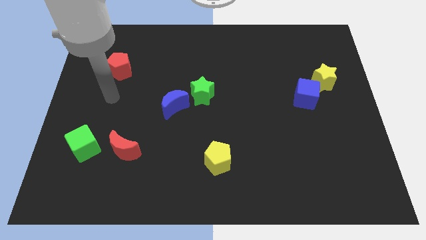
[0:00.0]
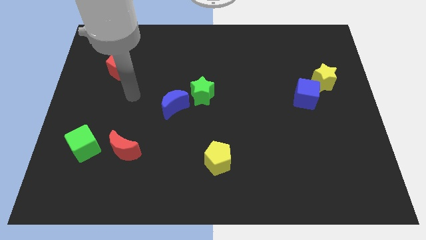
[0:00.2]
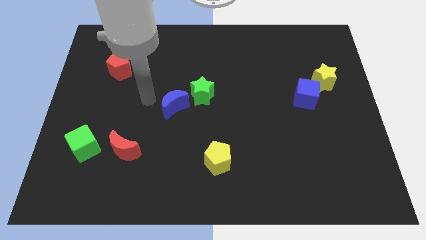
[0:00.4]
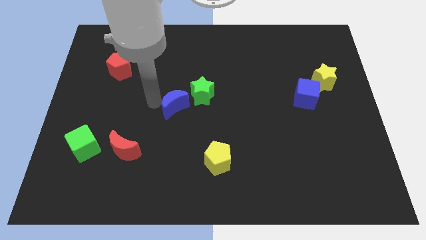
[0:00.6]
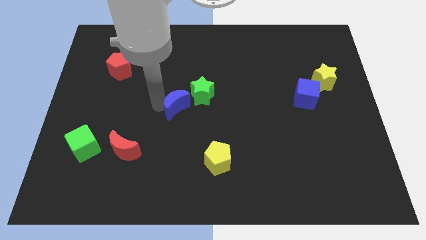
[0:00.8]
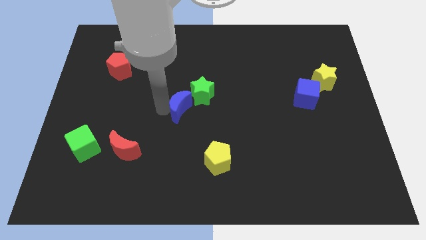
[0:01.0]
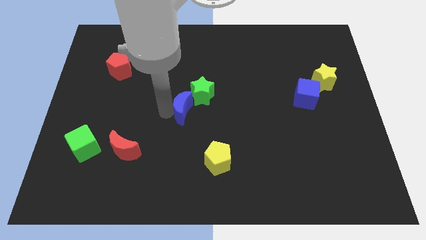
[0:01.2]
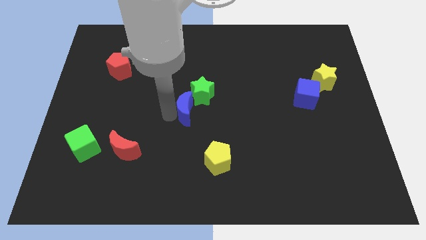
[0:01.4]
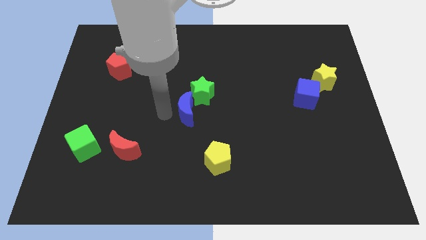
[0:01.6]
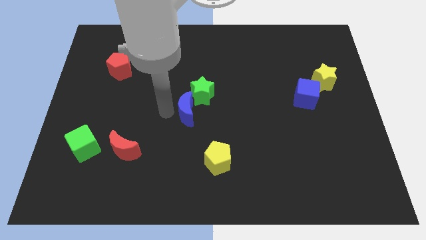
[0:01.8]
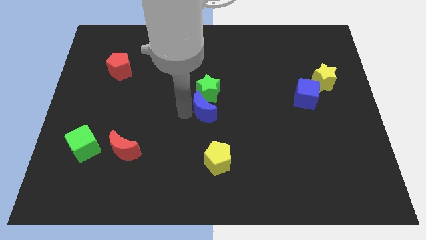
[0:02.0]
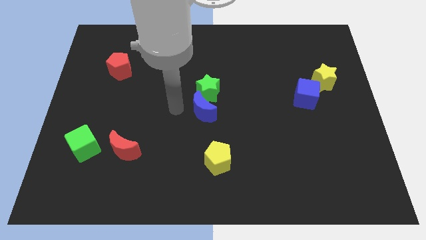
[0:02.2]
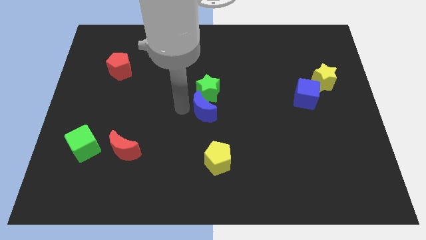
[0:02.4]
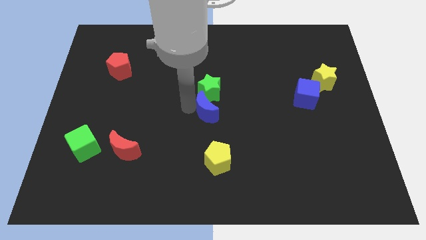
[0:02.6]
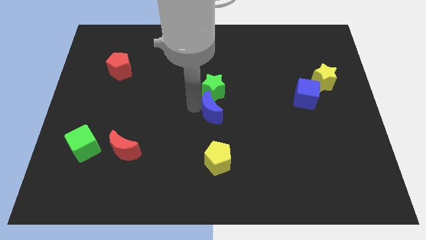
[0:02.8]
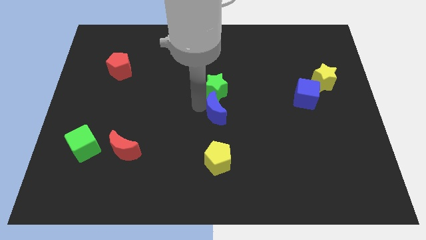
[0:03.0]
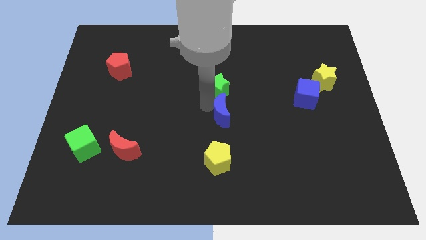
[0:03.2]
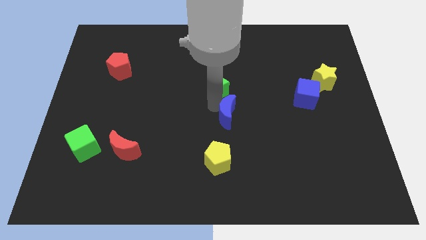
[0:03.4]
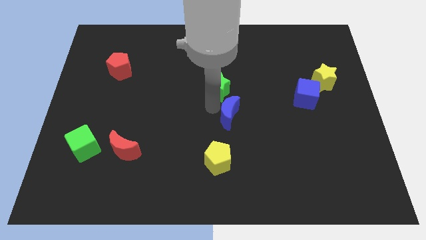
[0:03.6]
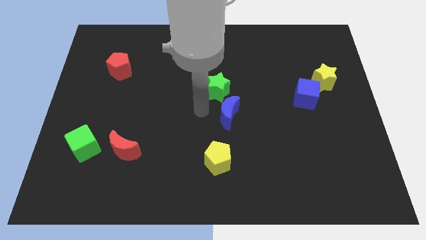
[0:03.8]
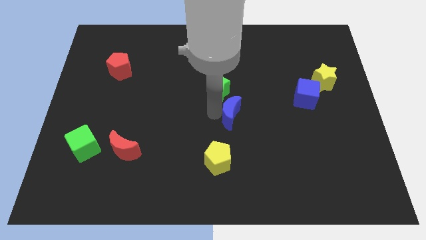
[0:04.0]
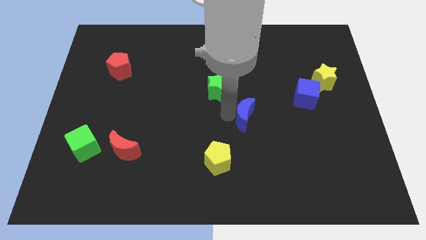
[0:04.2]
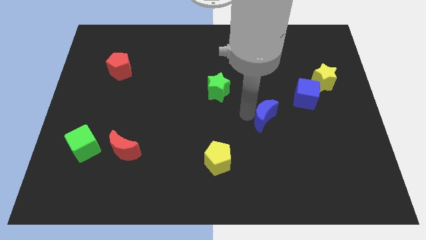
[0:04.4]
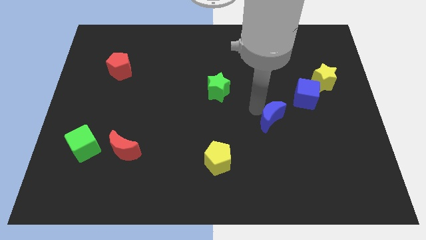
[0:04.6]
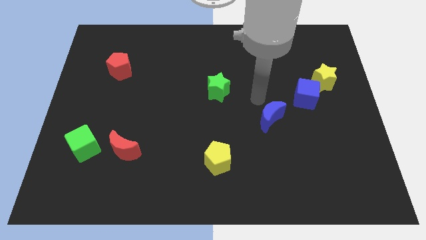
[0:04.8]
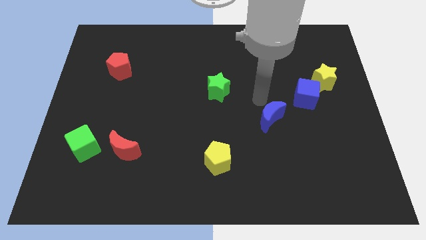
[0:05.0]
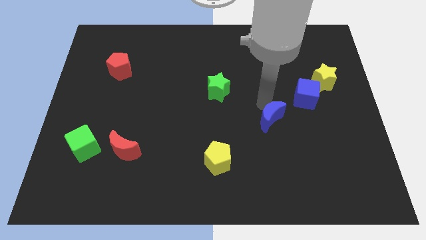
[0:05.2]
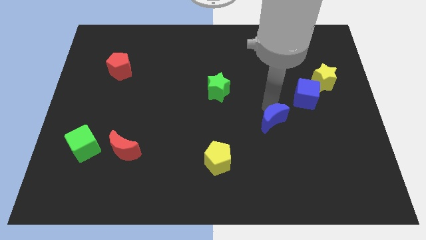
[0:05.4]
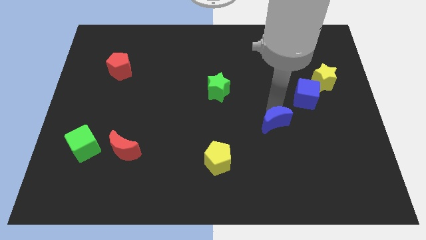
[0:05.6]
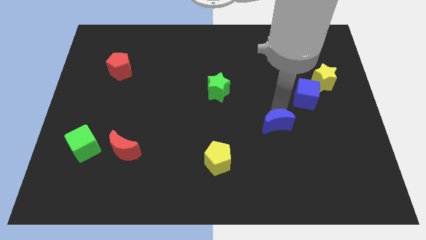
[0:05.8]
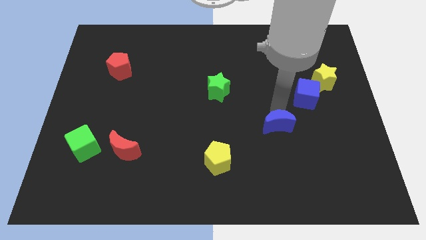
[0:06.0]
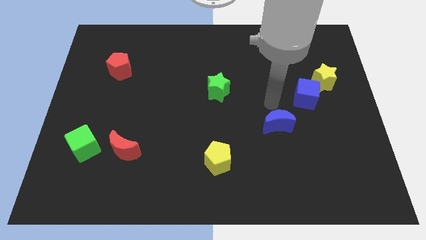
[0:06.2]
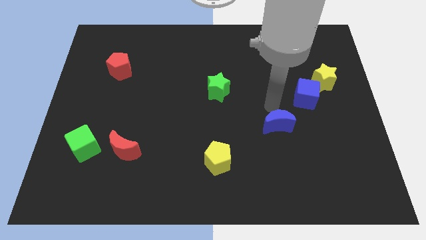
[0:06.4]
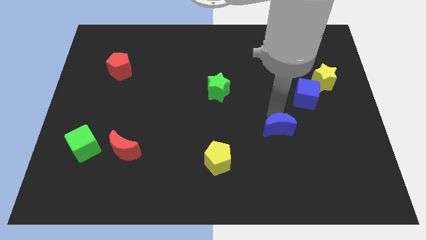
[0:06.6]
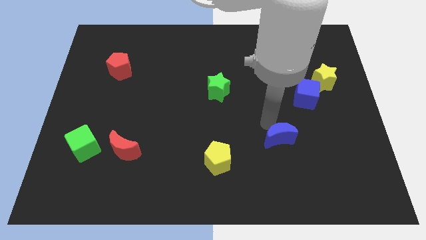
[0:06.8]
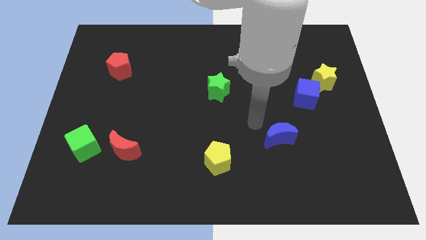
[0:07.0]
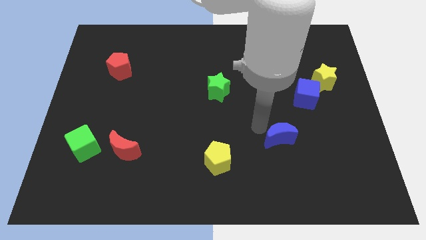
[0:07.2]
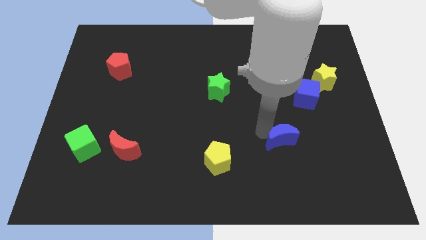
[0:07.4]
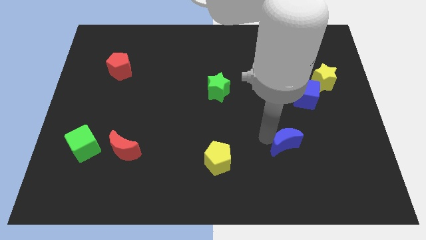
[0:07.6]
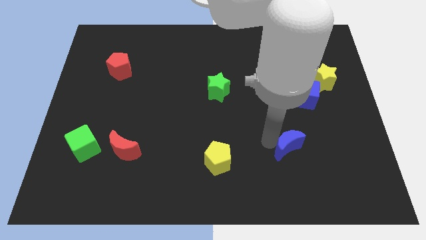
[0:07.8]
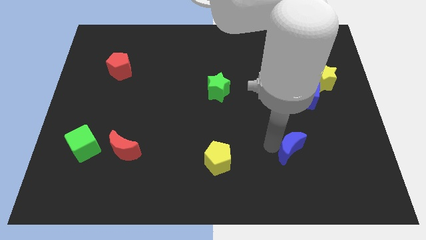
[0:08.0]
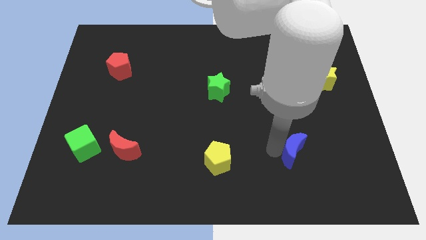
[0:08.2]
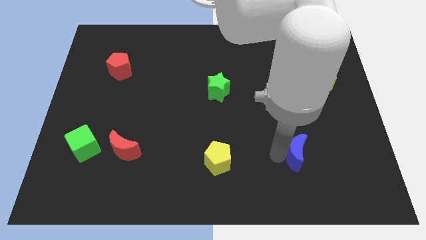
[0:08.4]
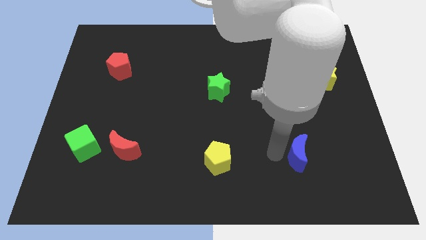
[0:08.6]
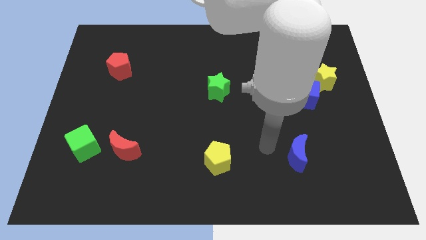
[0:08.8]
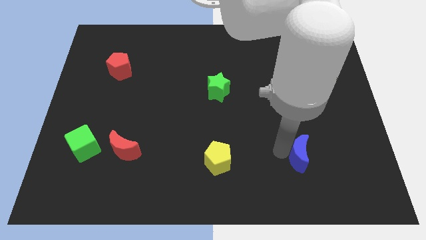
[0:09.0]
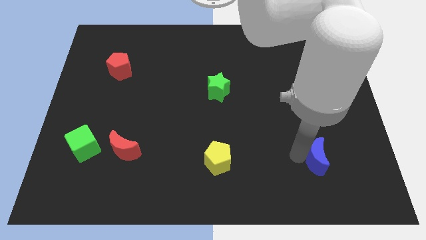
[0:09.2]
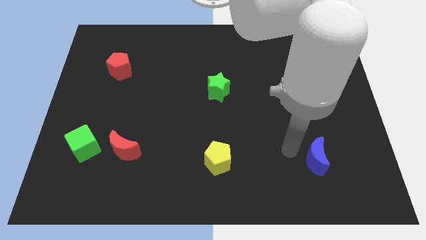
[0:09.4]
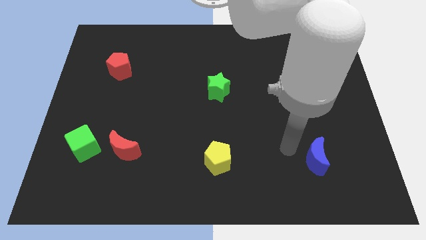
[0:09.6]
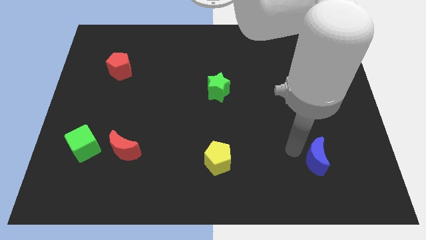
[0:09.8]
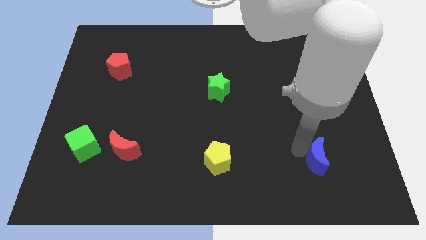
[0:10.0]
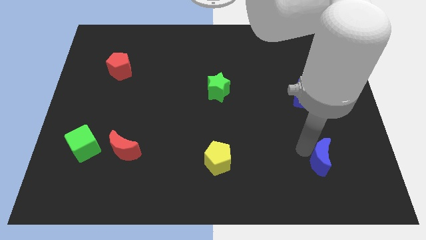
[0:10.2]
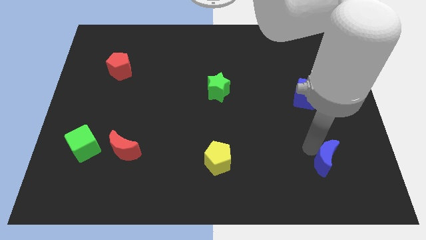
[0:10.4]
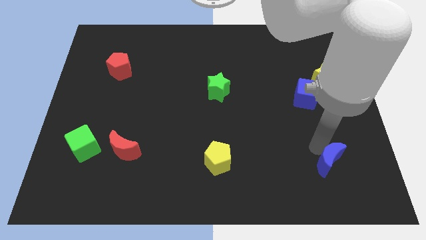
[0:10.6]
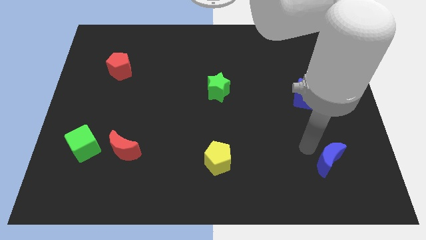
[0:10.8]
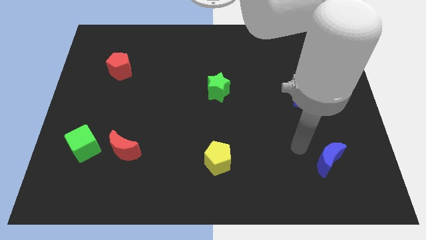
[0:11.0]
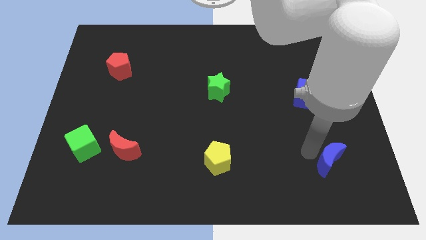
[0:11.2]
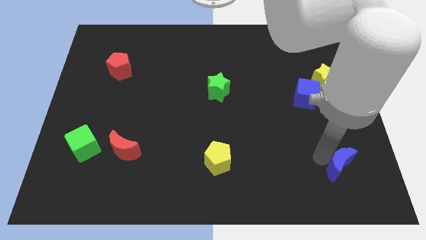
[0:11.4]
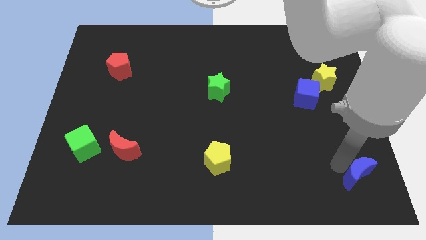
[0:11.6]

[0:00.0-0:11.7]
move the blue moon to the bottom right corner

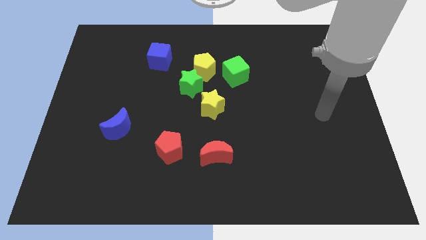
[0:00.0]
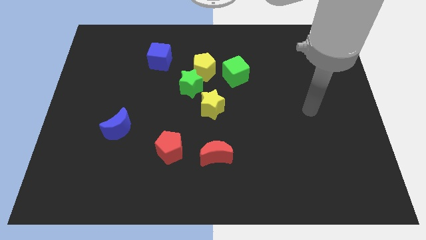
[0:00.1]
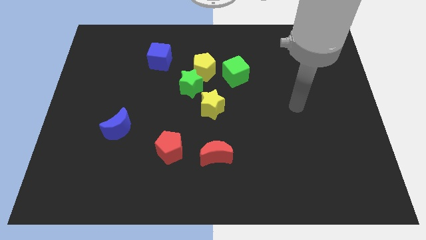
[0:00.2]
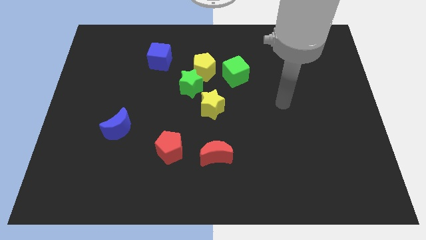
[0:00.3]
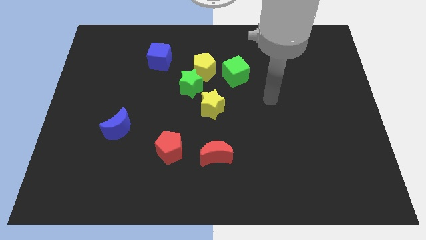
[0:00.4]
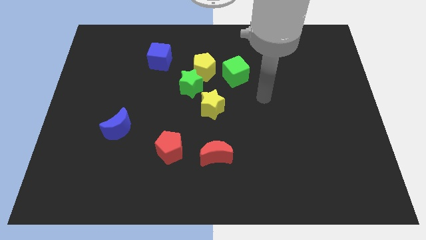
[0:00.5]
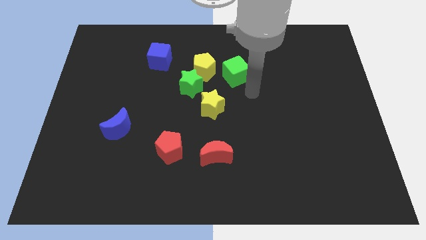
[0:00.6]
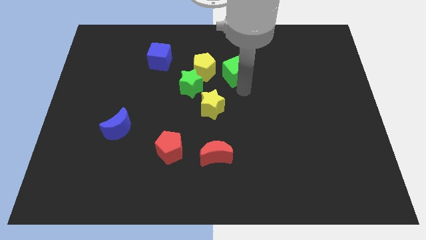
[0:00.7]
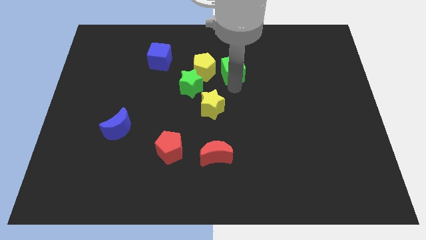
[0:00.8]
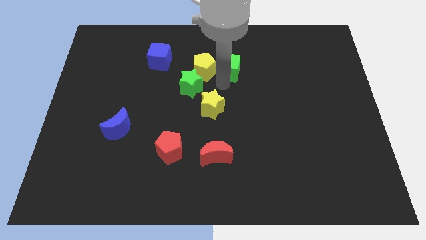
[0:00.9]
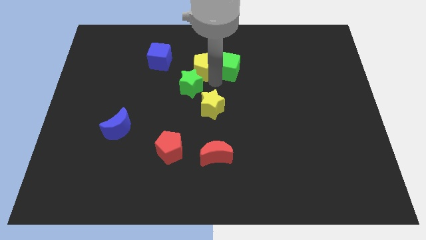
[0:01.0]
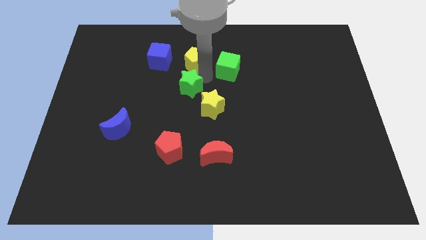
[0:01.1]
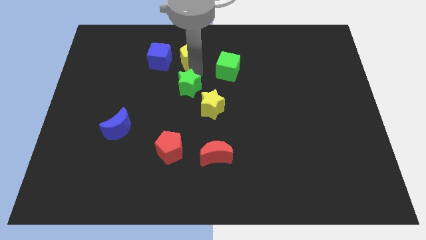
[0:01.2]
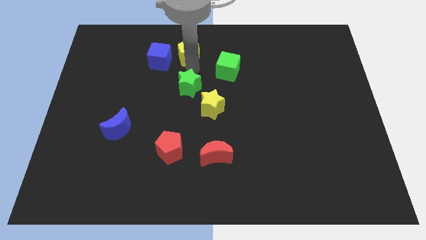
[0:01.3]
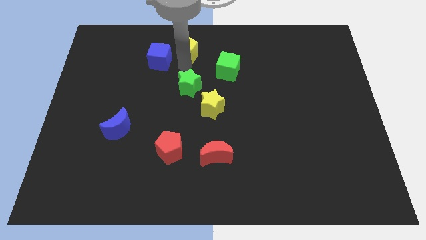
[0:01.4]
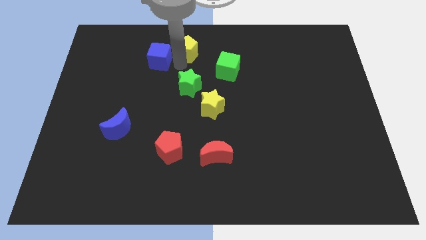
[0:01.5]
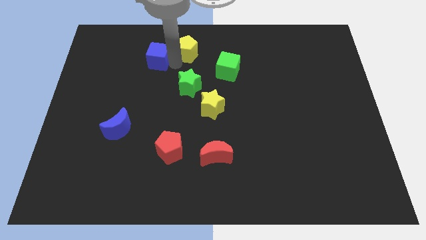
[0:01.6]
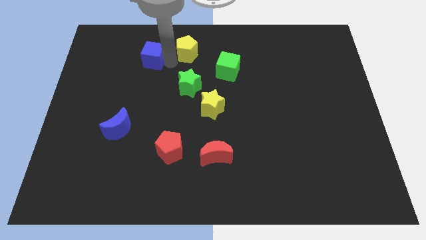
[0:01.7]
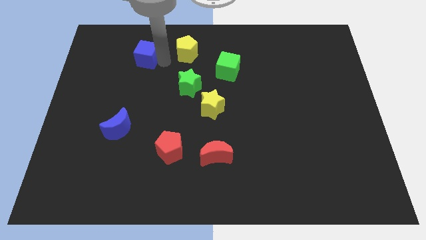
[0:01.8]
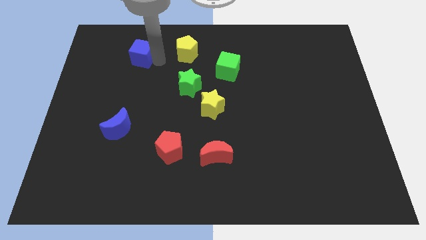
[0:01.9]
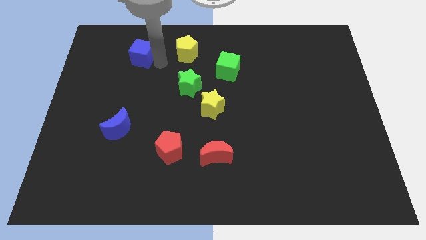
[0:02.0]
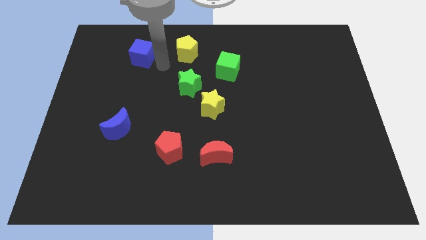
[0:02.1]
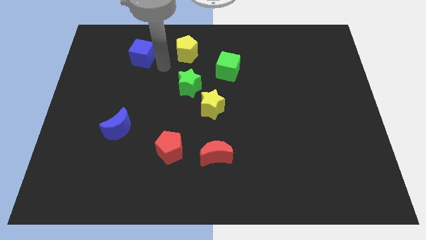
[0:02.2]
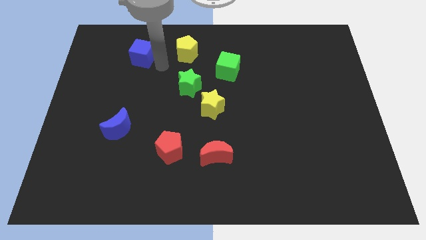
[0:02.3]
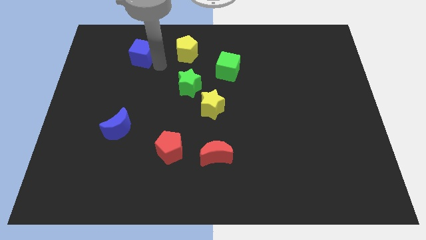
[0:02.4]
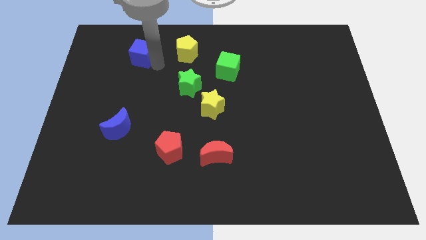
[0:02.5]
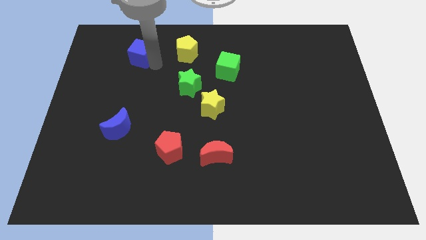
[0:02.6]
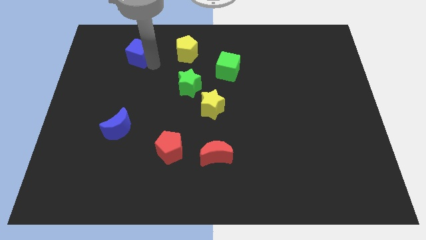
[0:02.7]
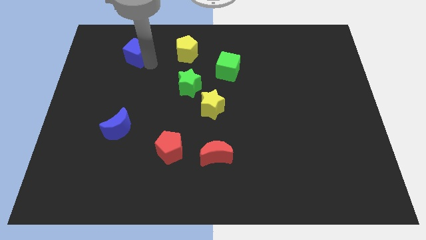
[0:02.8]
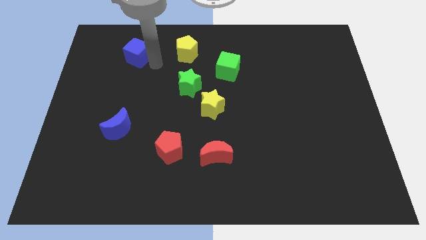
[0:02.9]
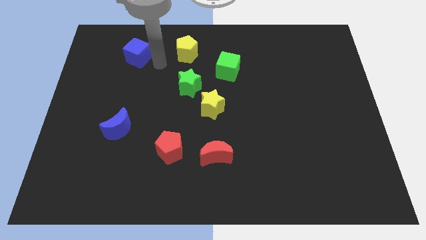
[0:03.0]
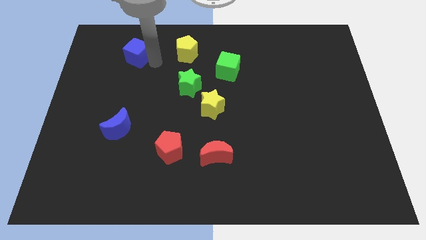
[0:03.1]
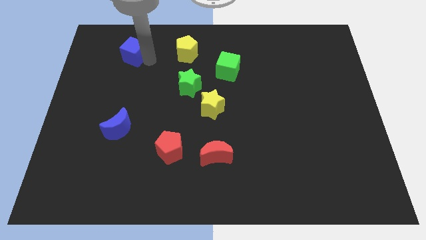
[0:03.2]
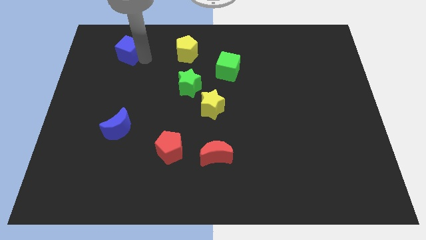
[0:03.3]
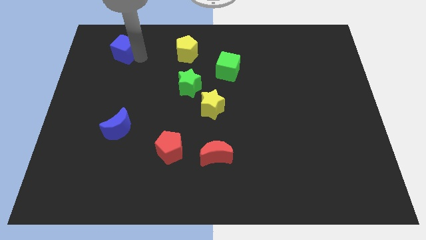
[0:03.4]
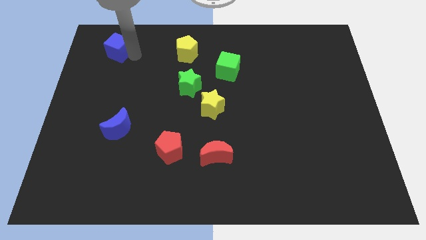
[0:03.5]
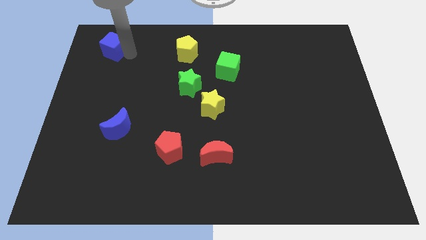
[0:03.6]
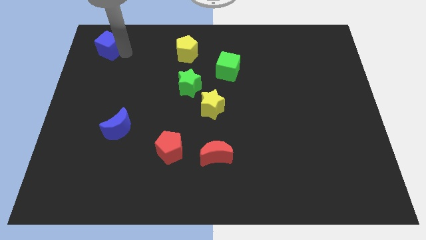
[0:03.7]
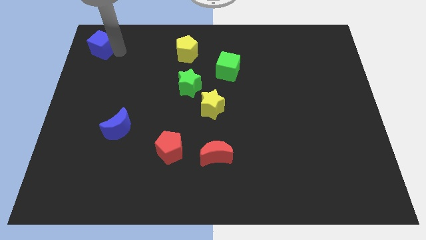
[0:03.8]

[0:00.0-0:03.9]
slide the blue cube to the top left
